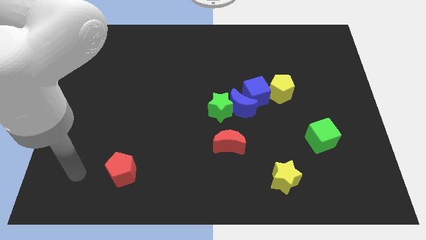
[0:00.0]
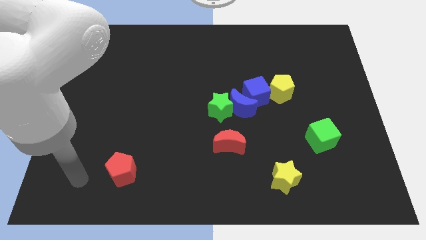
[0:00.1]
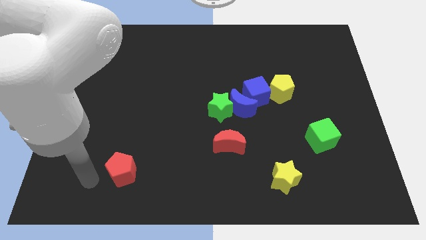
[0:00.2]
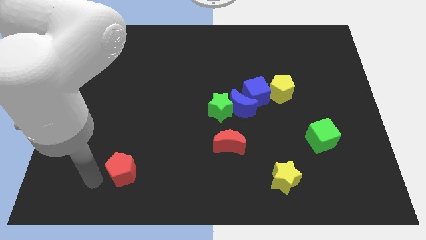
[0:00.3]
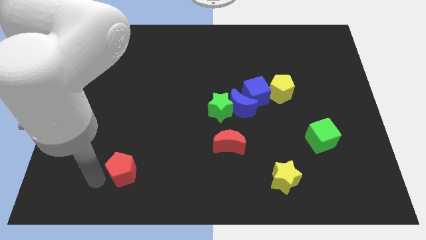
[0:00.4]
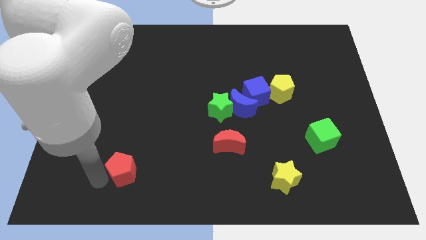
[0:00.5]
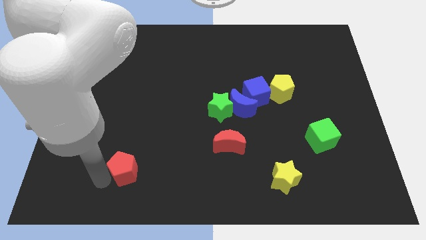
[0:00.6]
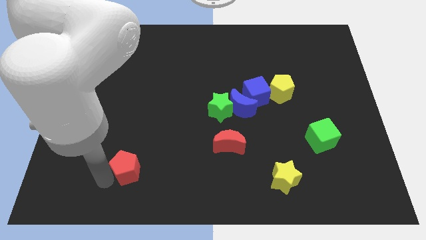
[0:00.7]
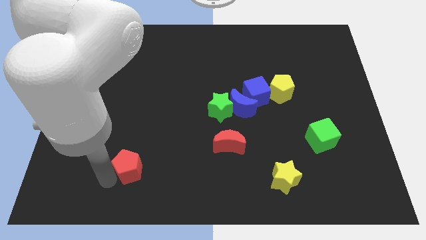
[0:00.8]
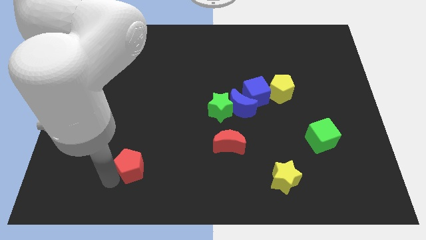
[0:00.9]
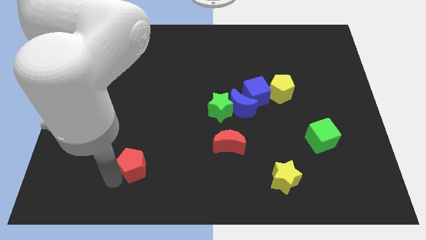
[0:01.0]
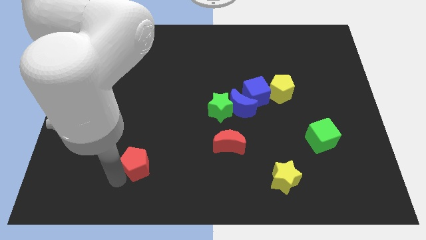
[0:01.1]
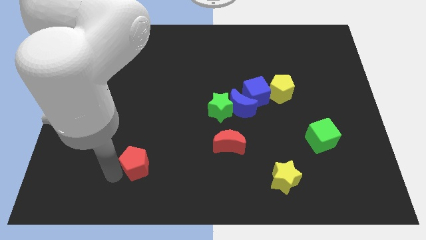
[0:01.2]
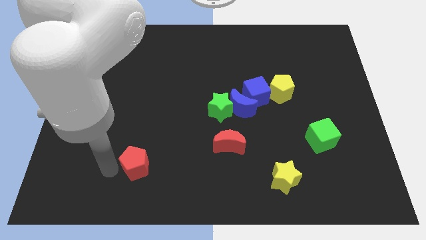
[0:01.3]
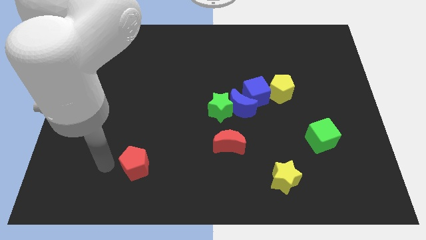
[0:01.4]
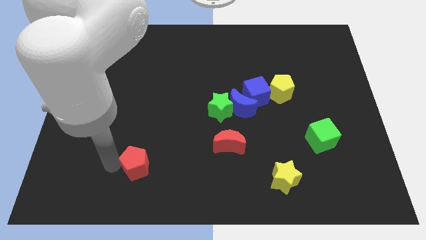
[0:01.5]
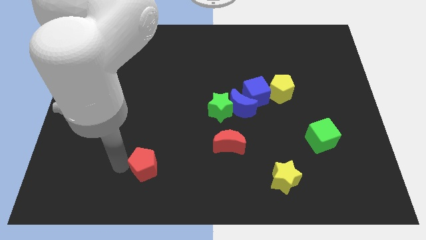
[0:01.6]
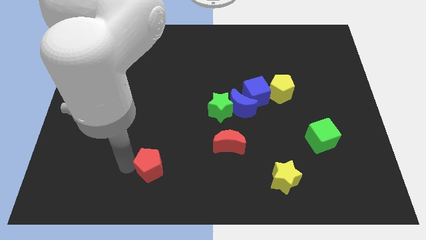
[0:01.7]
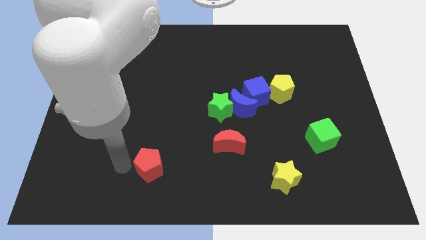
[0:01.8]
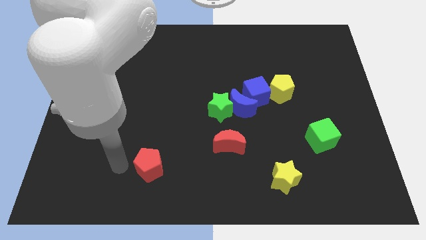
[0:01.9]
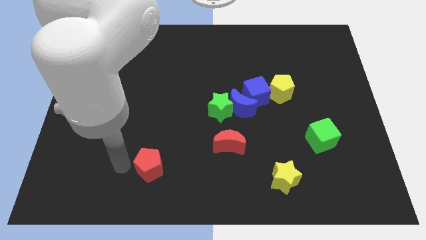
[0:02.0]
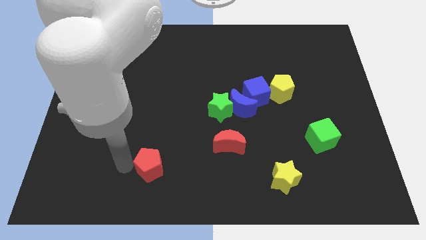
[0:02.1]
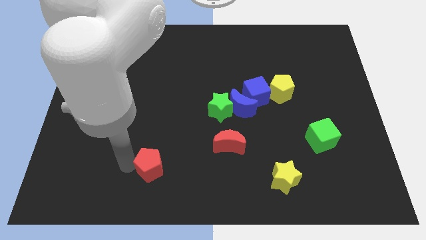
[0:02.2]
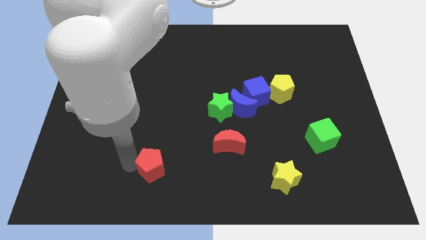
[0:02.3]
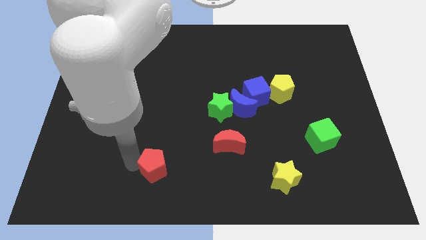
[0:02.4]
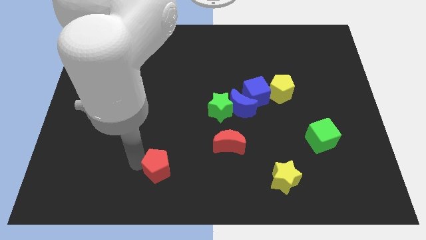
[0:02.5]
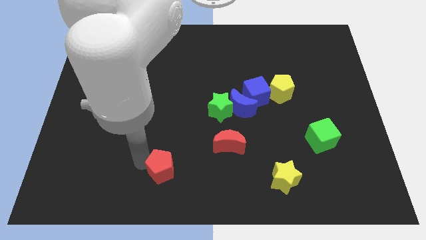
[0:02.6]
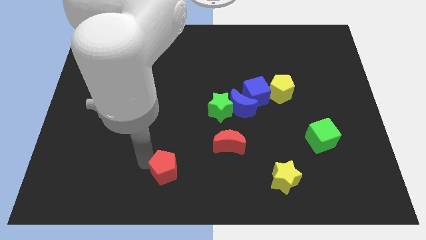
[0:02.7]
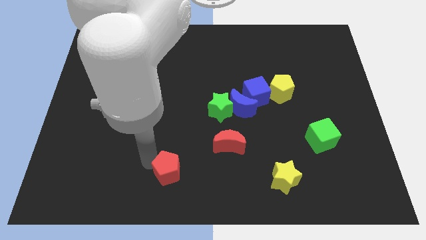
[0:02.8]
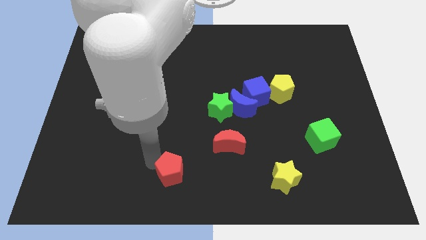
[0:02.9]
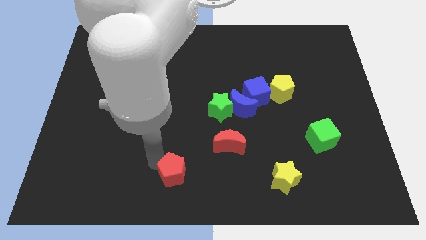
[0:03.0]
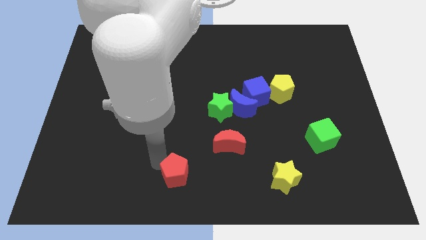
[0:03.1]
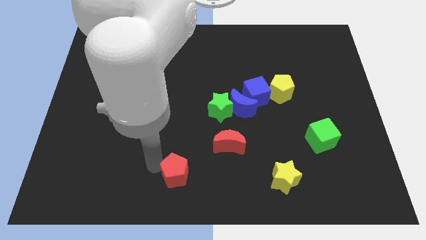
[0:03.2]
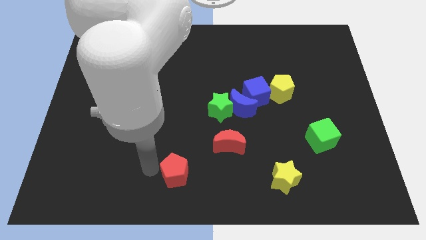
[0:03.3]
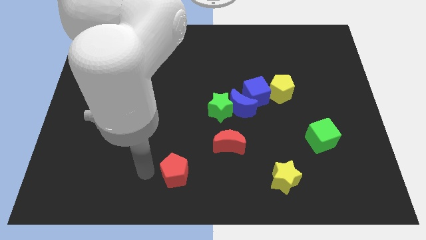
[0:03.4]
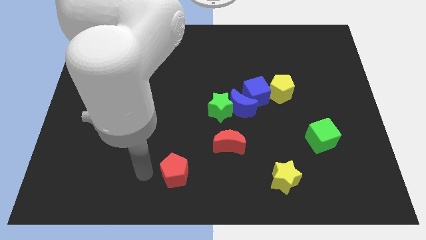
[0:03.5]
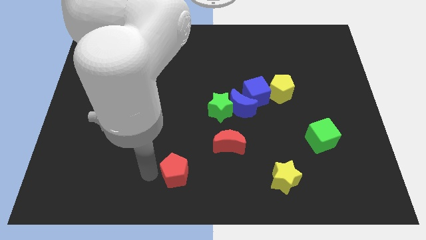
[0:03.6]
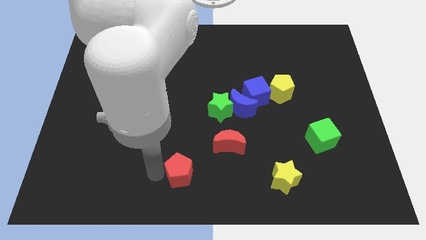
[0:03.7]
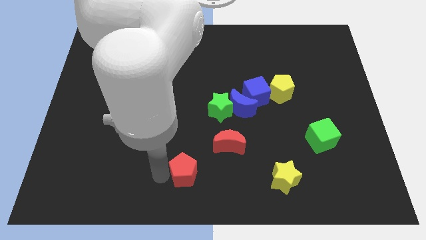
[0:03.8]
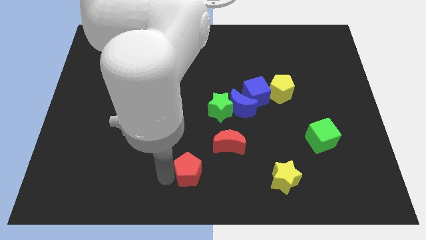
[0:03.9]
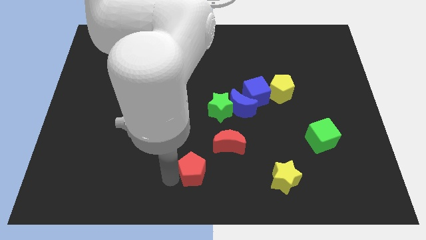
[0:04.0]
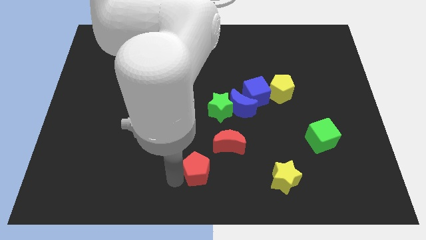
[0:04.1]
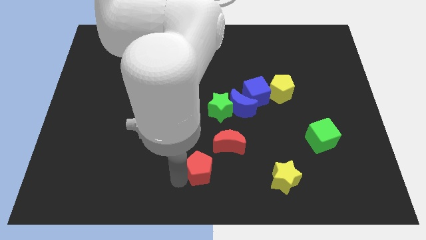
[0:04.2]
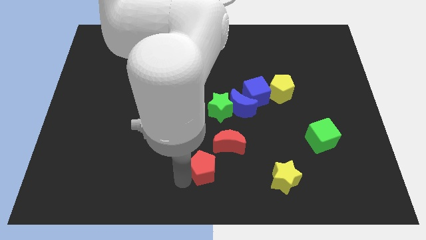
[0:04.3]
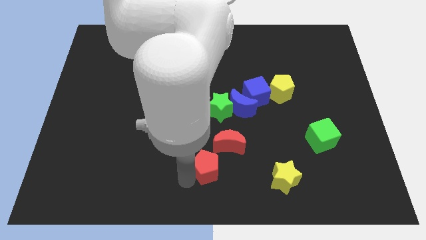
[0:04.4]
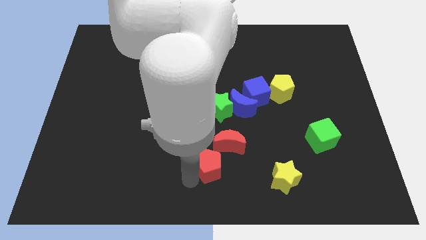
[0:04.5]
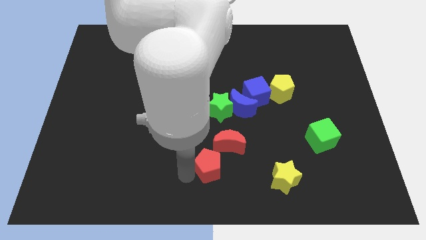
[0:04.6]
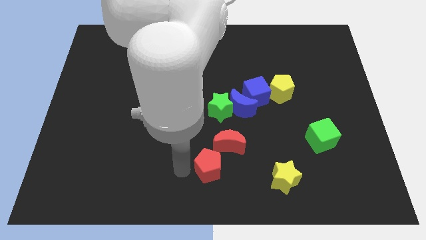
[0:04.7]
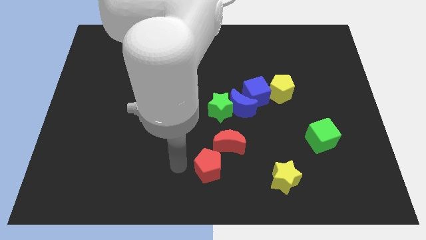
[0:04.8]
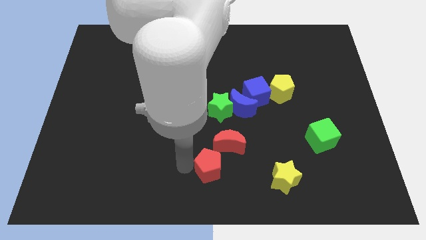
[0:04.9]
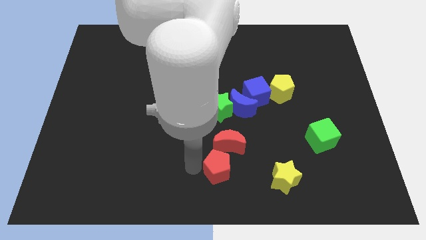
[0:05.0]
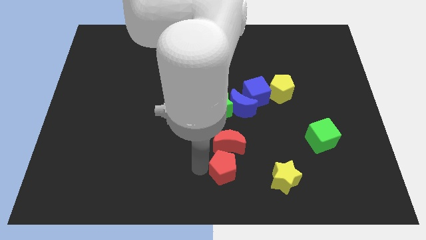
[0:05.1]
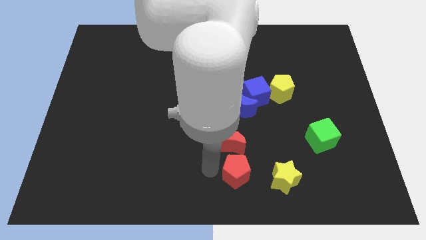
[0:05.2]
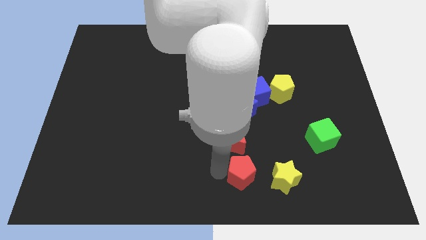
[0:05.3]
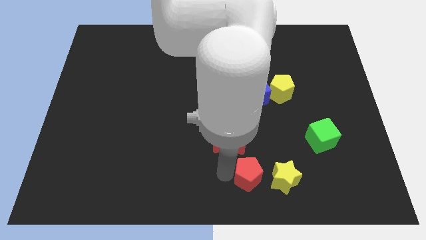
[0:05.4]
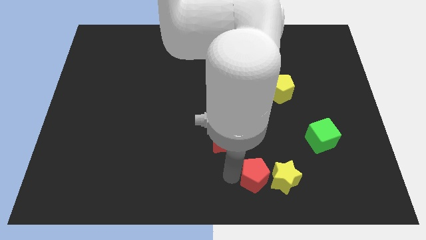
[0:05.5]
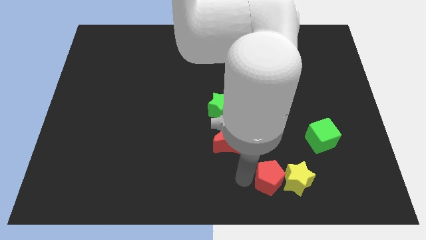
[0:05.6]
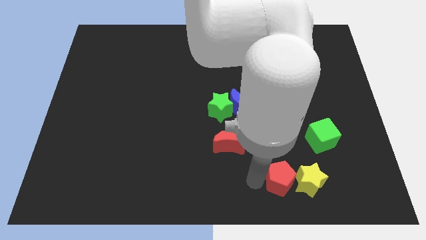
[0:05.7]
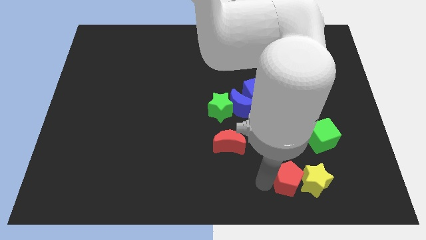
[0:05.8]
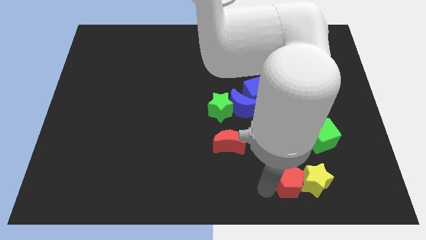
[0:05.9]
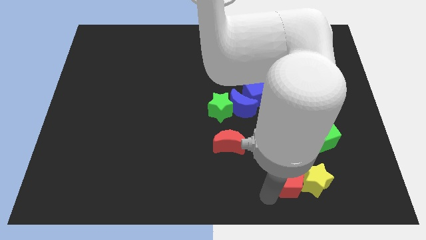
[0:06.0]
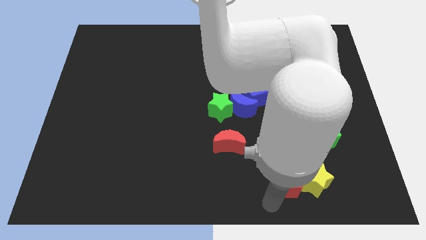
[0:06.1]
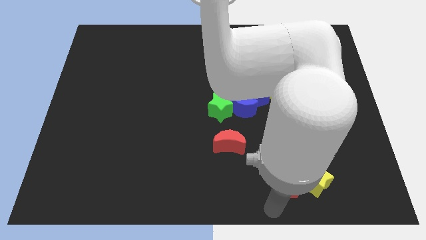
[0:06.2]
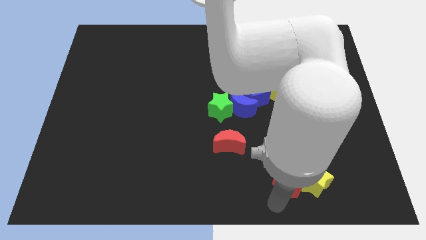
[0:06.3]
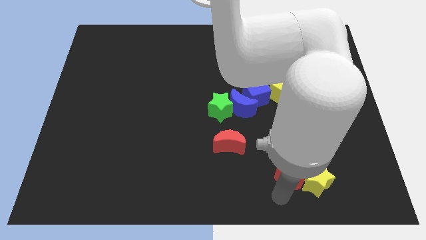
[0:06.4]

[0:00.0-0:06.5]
push the red pentagon diagonally down and to the left of the green cube

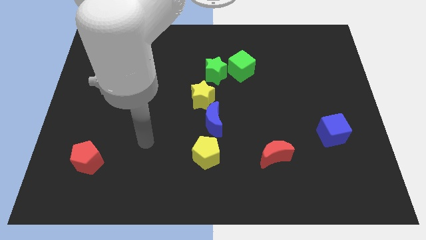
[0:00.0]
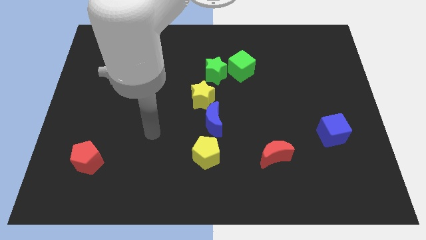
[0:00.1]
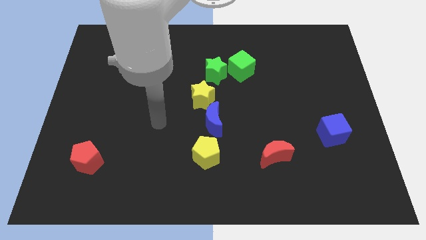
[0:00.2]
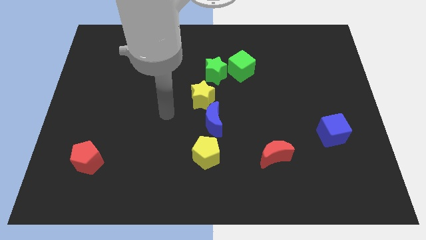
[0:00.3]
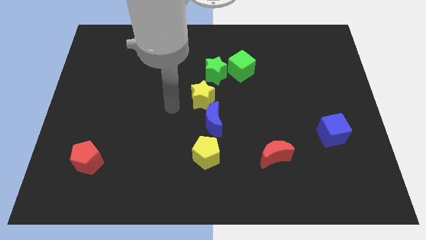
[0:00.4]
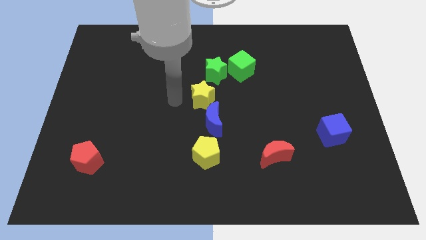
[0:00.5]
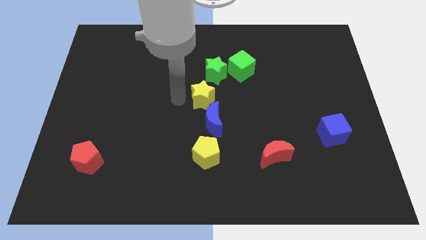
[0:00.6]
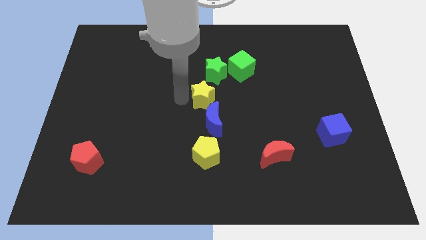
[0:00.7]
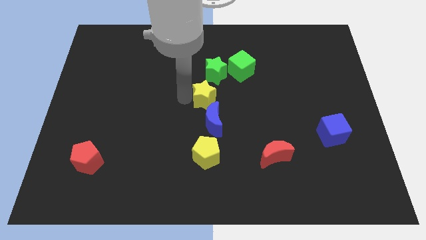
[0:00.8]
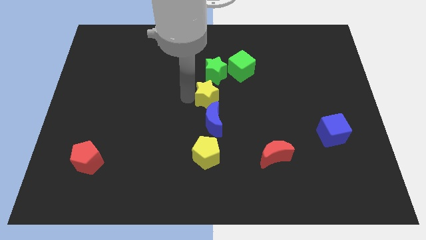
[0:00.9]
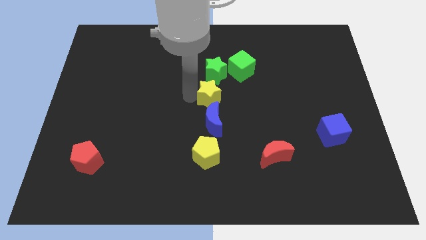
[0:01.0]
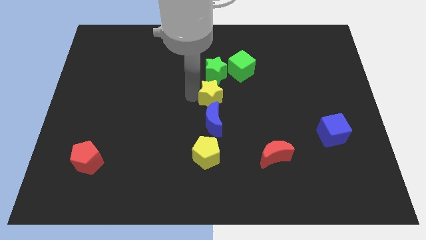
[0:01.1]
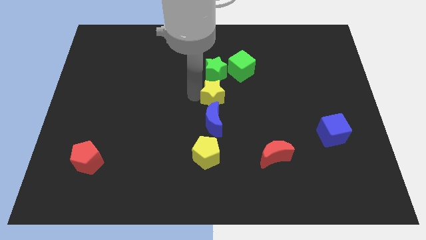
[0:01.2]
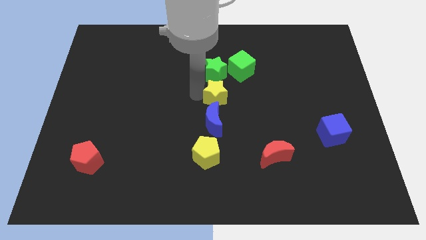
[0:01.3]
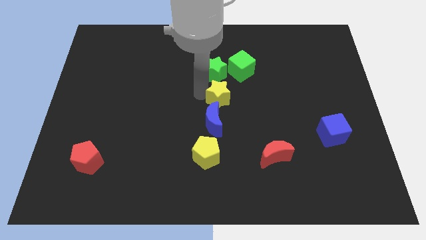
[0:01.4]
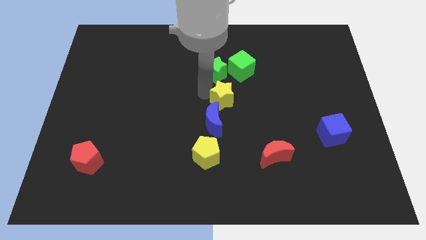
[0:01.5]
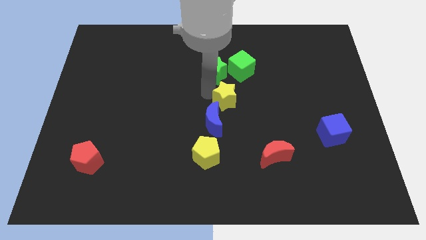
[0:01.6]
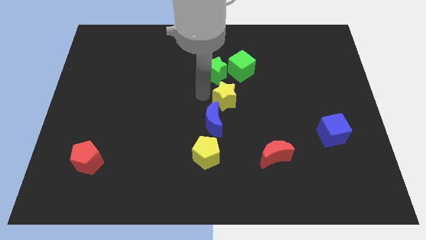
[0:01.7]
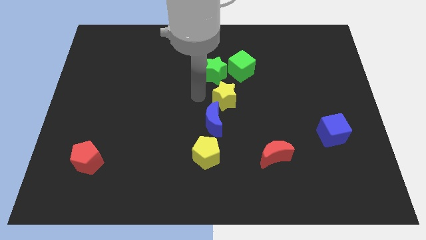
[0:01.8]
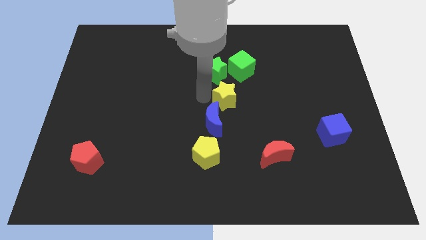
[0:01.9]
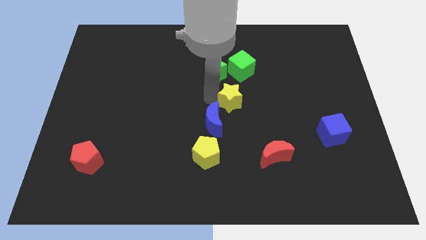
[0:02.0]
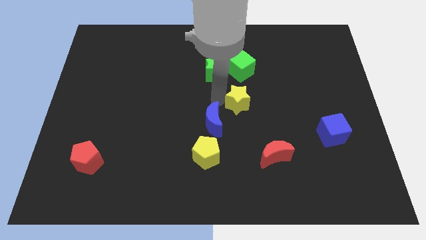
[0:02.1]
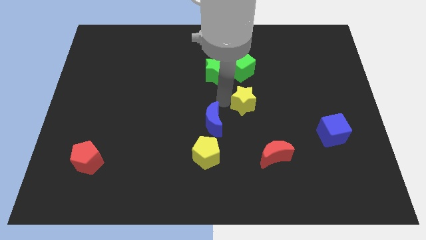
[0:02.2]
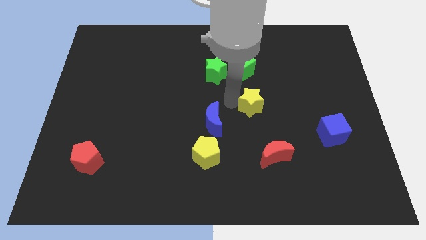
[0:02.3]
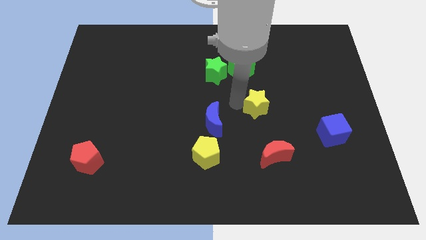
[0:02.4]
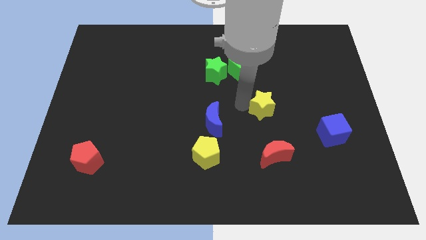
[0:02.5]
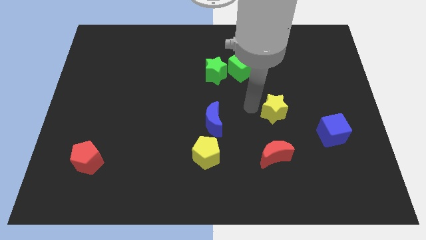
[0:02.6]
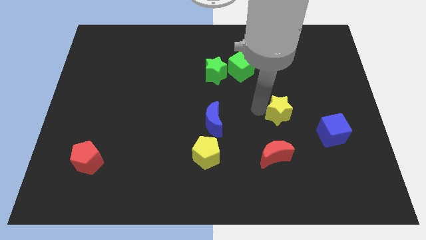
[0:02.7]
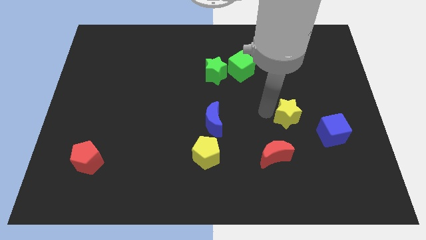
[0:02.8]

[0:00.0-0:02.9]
move the yellow star to the top left of the blue cube
